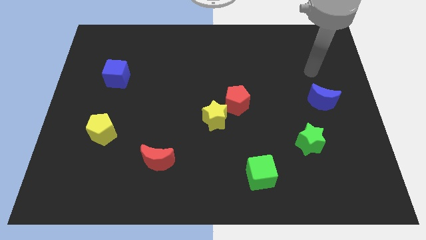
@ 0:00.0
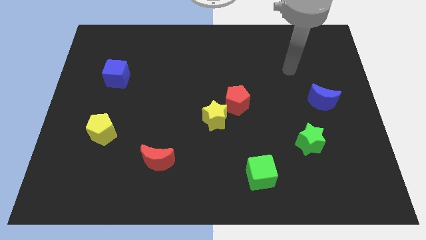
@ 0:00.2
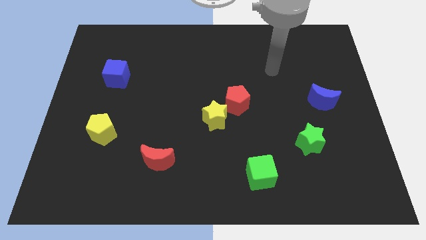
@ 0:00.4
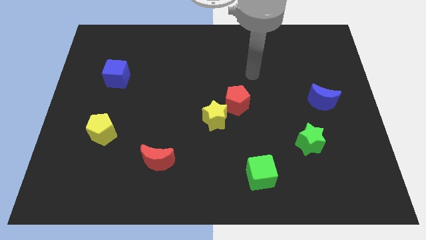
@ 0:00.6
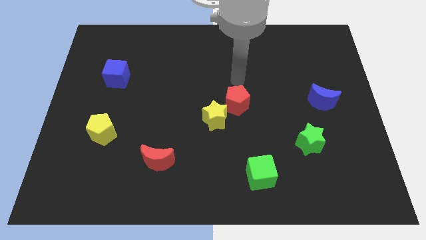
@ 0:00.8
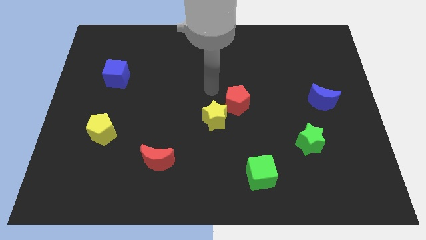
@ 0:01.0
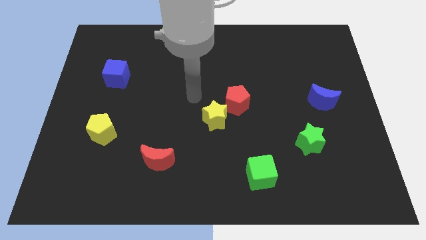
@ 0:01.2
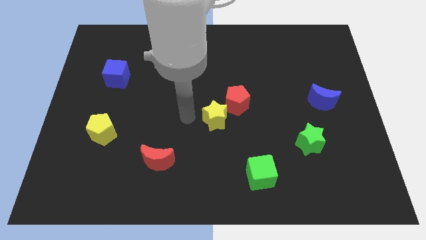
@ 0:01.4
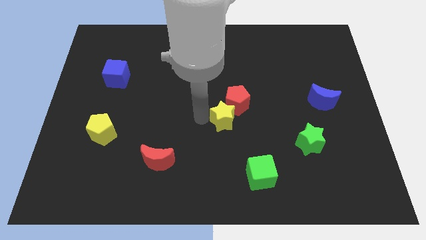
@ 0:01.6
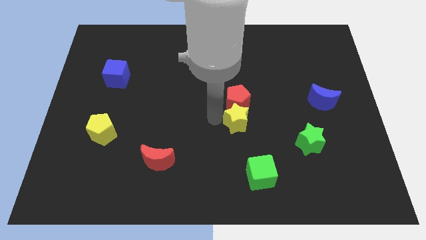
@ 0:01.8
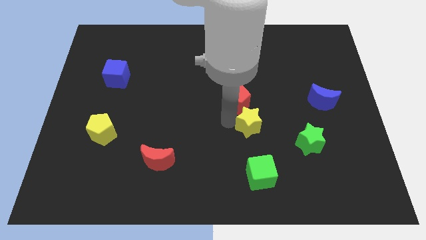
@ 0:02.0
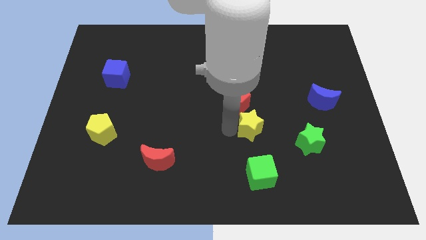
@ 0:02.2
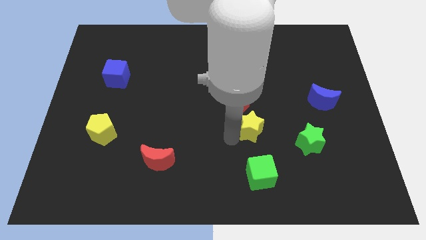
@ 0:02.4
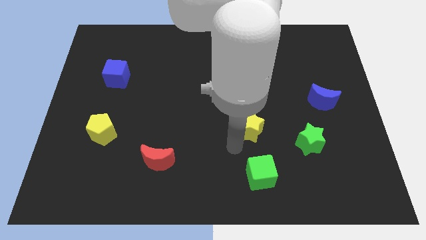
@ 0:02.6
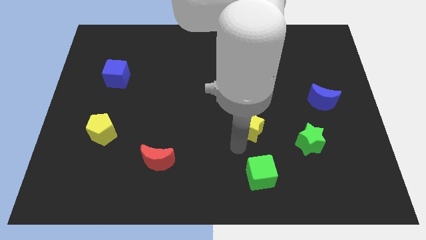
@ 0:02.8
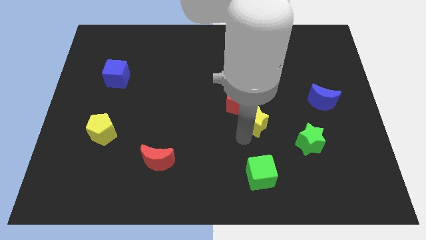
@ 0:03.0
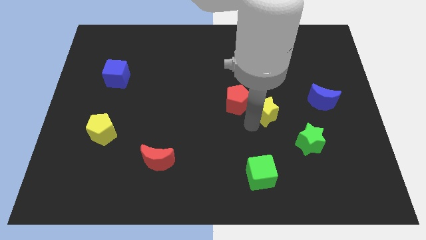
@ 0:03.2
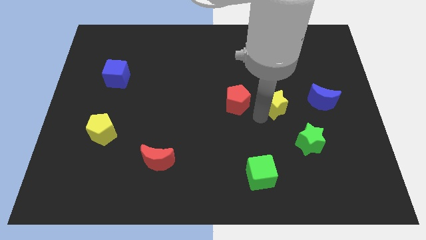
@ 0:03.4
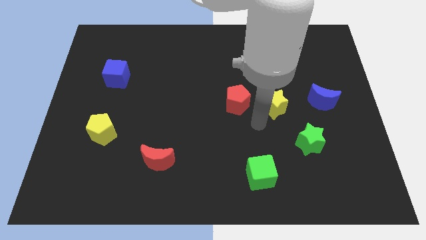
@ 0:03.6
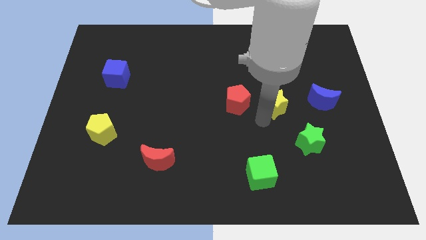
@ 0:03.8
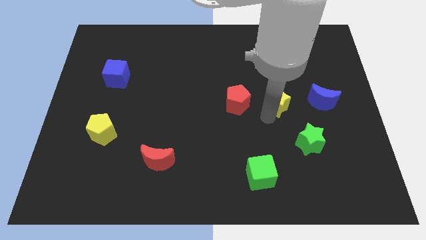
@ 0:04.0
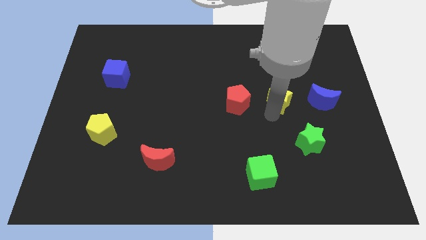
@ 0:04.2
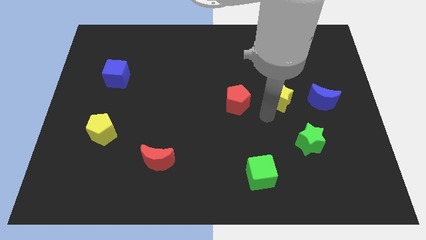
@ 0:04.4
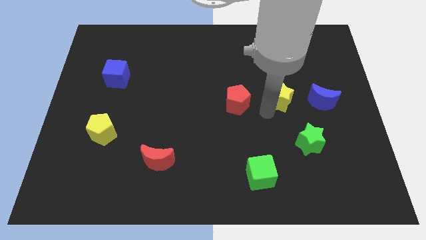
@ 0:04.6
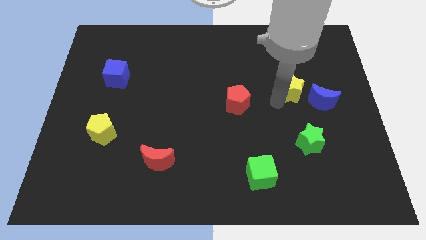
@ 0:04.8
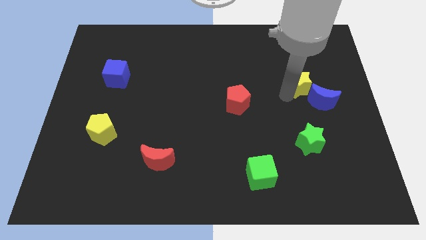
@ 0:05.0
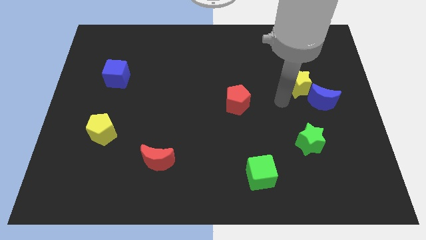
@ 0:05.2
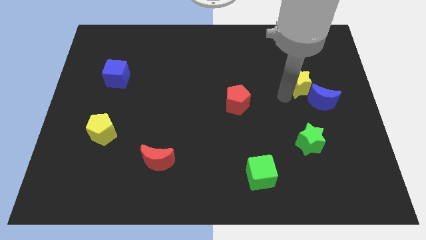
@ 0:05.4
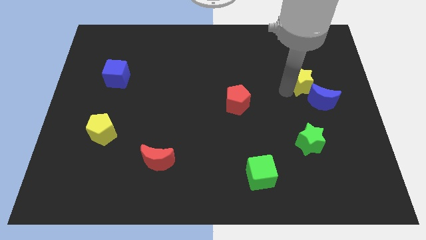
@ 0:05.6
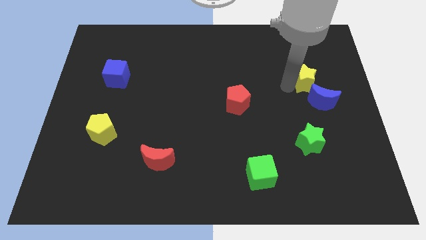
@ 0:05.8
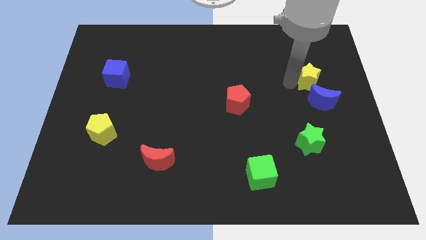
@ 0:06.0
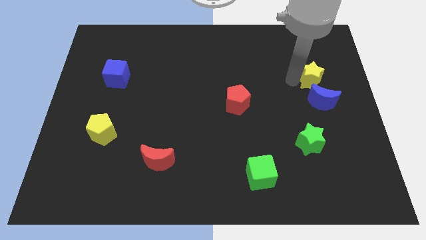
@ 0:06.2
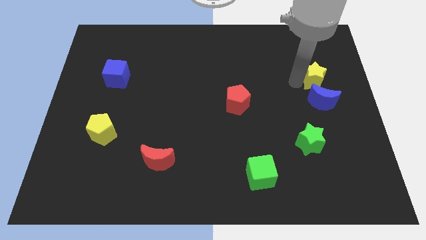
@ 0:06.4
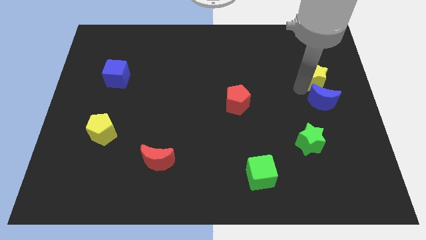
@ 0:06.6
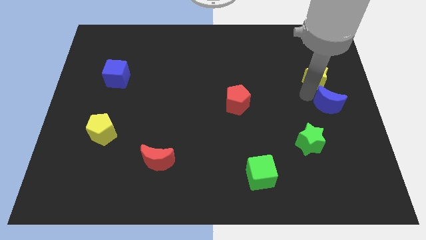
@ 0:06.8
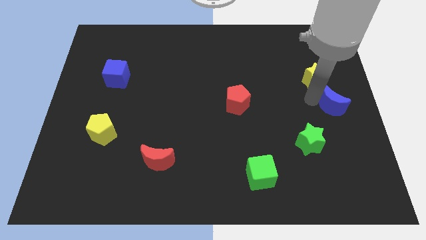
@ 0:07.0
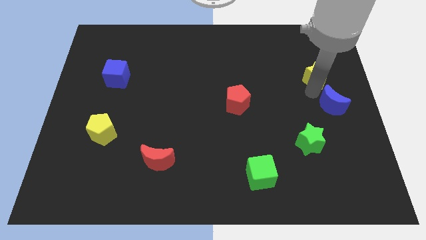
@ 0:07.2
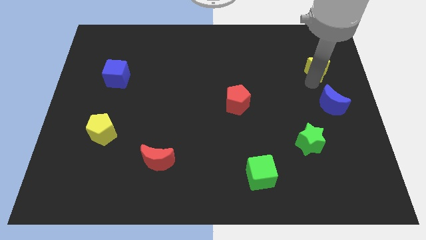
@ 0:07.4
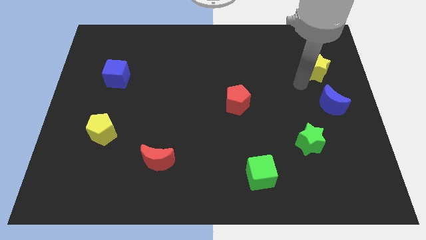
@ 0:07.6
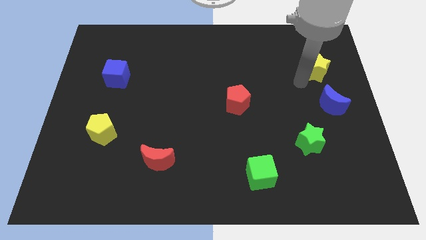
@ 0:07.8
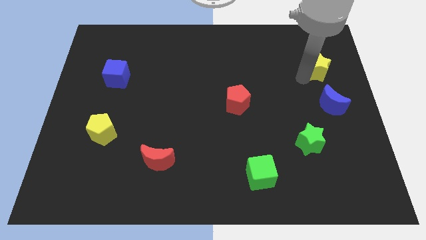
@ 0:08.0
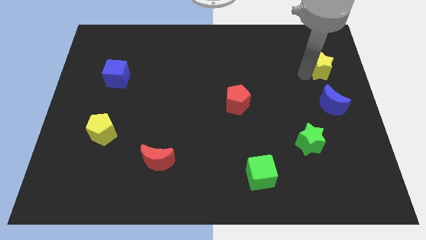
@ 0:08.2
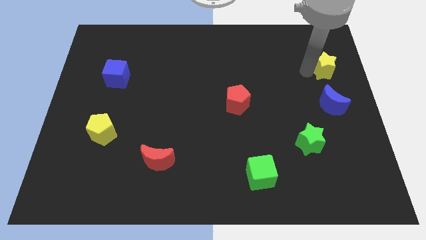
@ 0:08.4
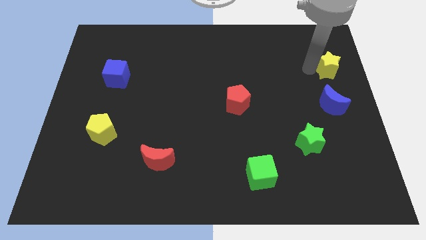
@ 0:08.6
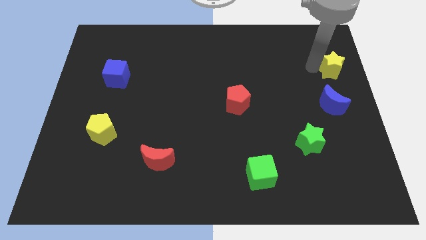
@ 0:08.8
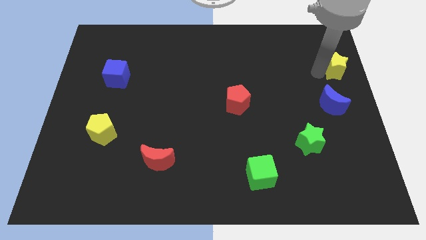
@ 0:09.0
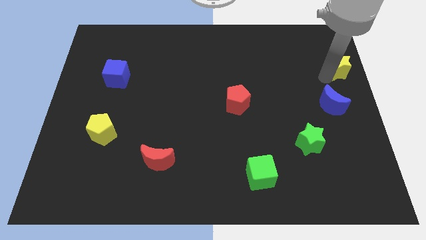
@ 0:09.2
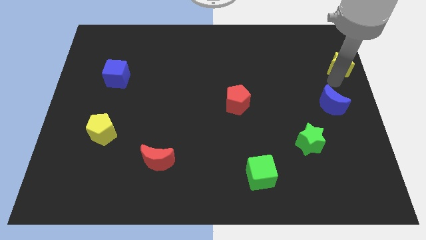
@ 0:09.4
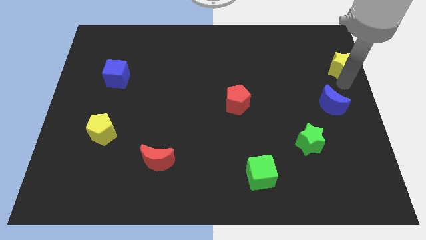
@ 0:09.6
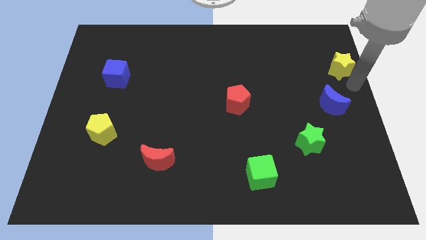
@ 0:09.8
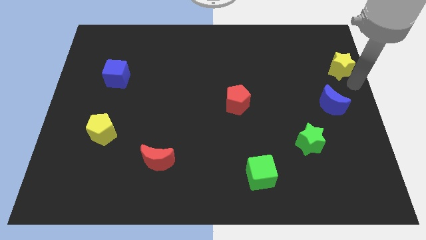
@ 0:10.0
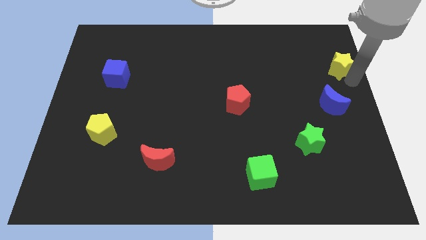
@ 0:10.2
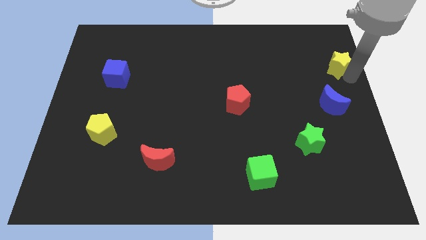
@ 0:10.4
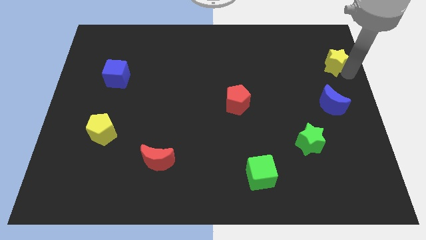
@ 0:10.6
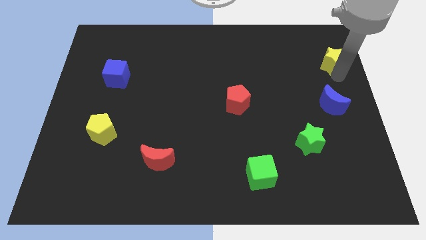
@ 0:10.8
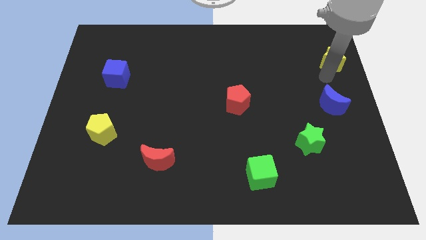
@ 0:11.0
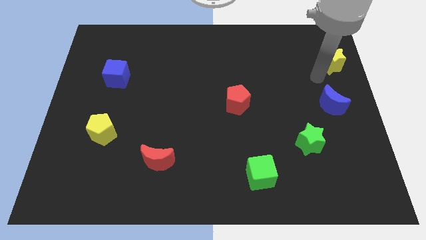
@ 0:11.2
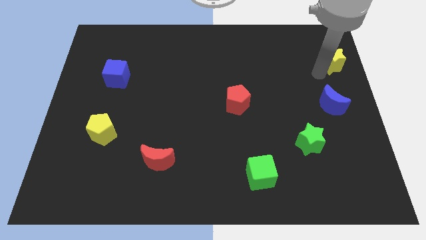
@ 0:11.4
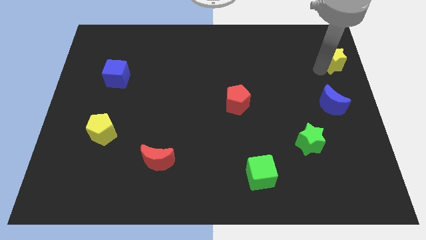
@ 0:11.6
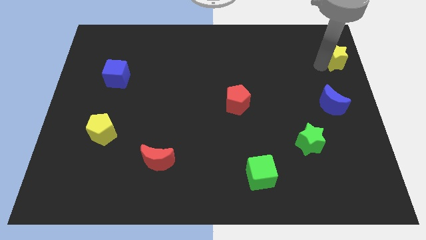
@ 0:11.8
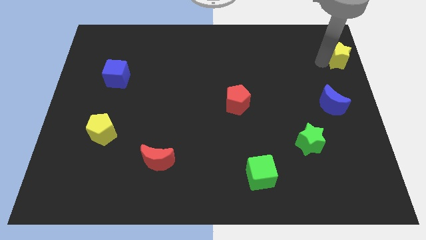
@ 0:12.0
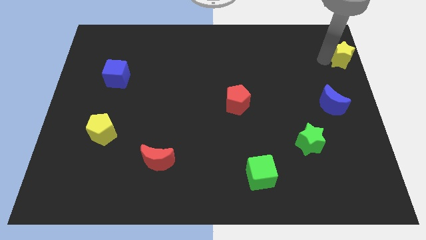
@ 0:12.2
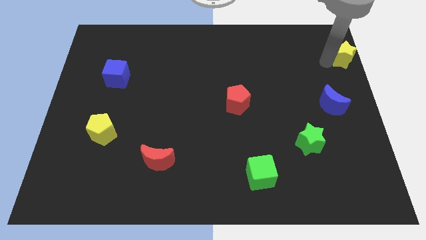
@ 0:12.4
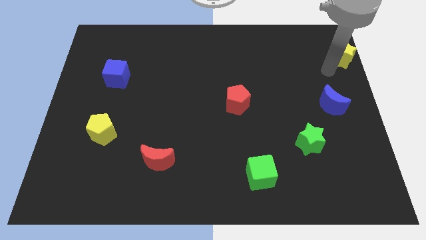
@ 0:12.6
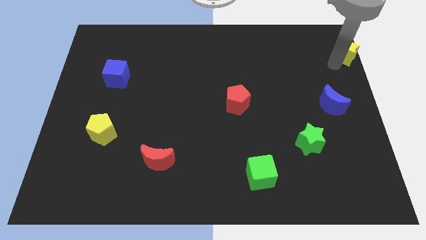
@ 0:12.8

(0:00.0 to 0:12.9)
move the yellow star to the top right corner
